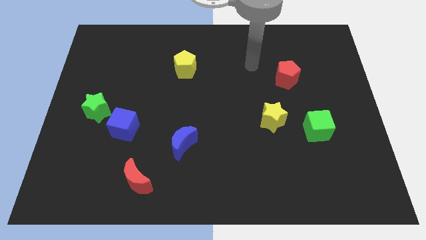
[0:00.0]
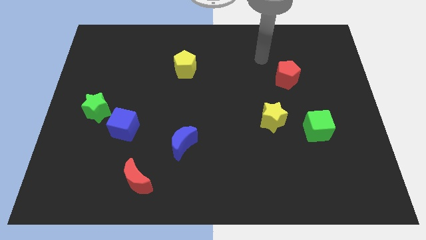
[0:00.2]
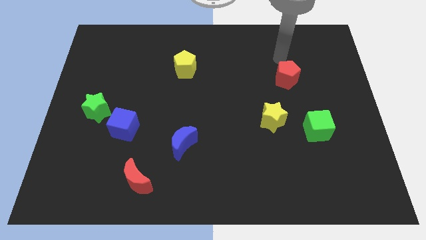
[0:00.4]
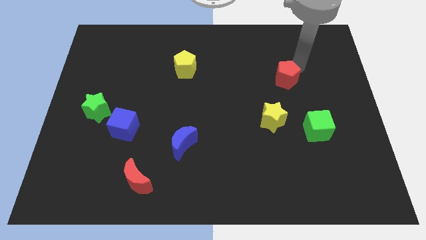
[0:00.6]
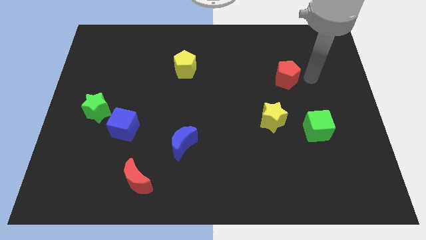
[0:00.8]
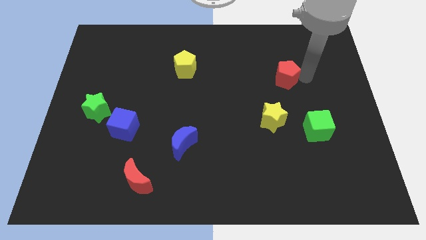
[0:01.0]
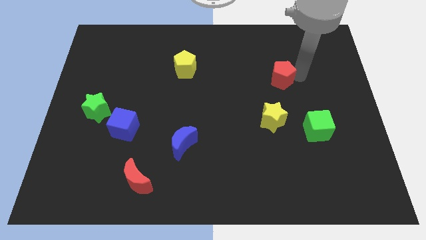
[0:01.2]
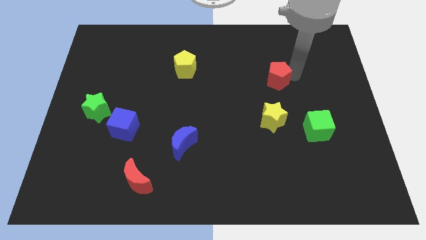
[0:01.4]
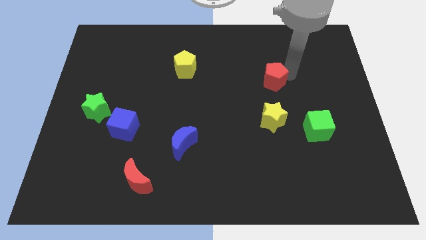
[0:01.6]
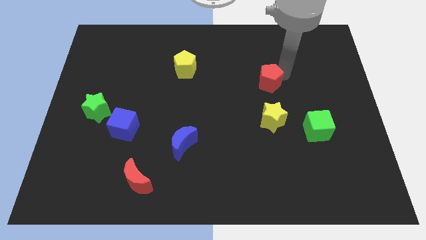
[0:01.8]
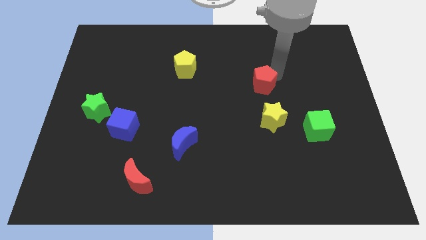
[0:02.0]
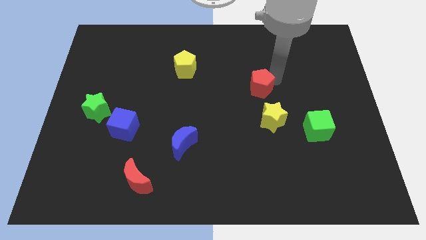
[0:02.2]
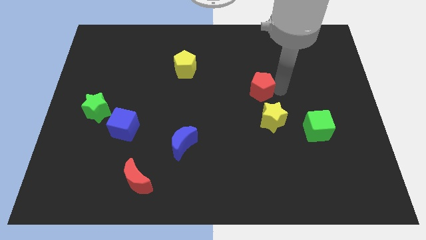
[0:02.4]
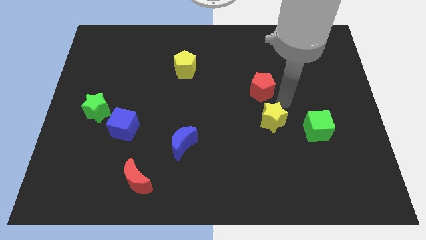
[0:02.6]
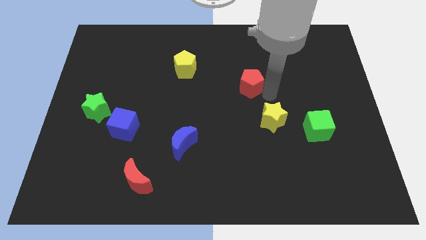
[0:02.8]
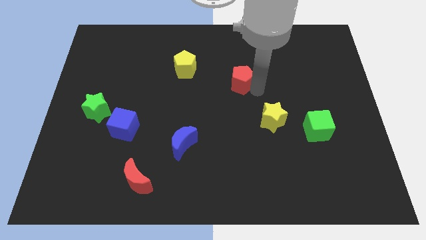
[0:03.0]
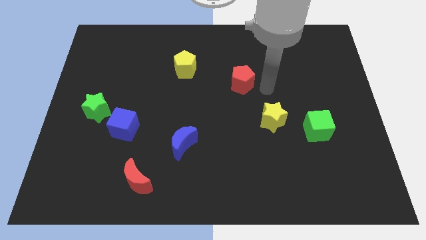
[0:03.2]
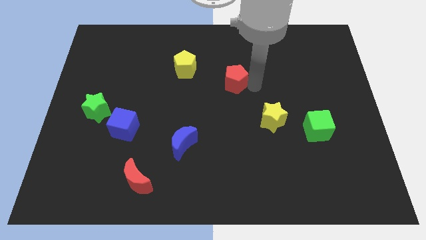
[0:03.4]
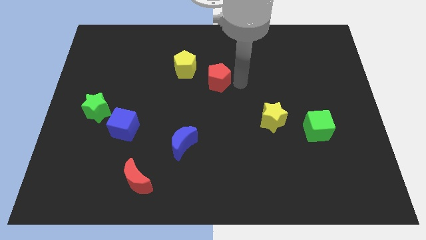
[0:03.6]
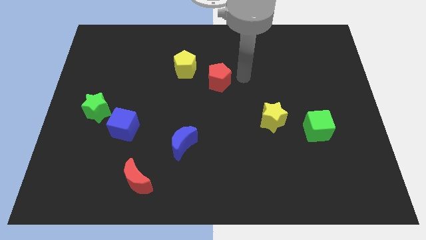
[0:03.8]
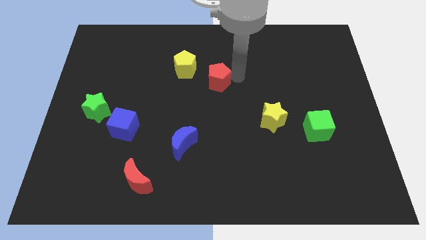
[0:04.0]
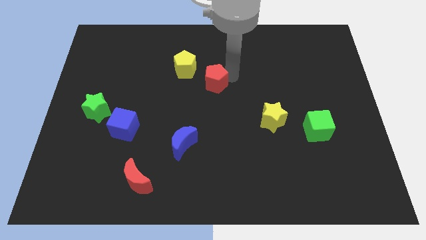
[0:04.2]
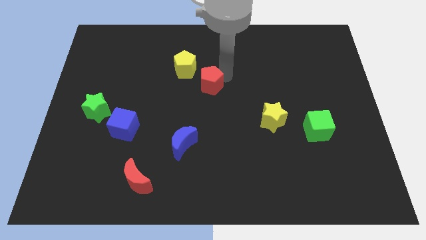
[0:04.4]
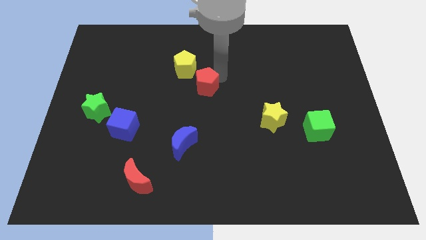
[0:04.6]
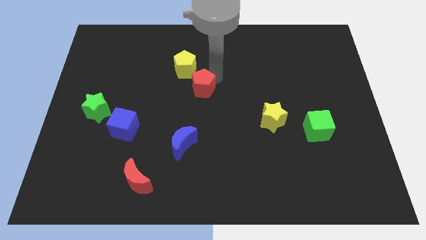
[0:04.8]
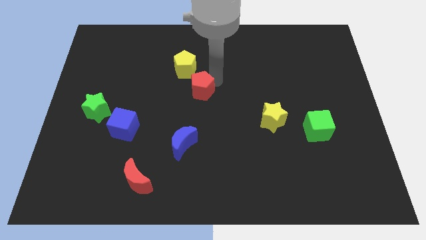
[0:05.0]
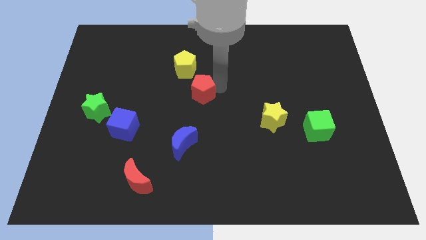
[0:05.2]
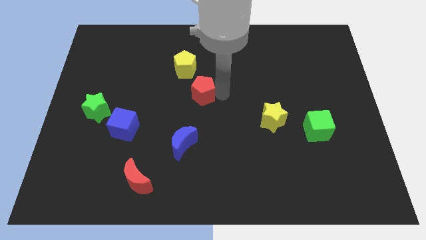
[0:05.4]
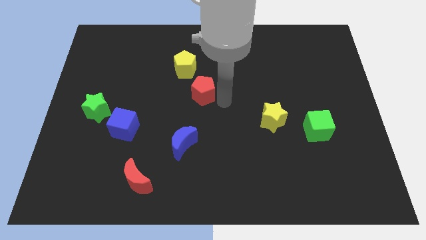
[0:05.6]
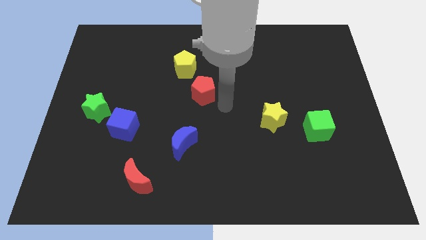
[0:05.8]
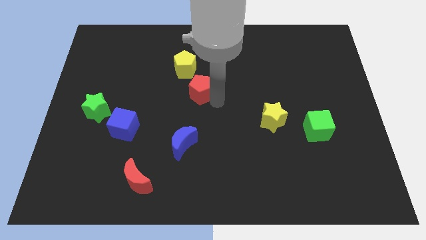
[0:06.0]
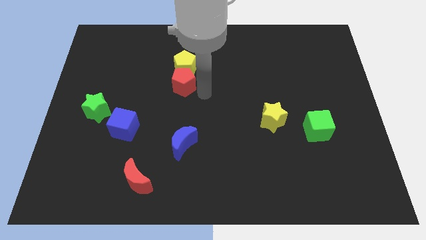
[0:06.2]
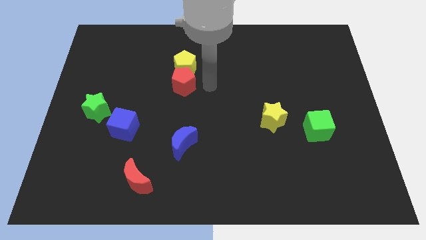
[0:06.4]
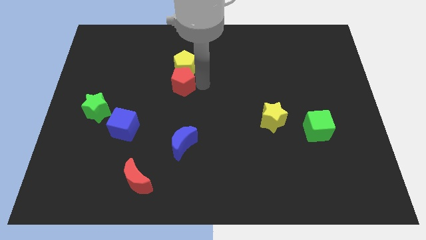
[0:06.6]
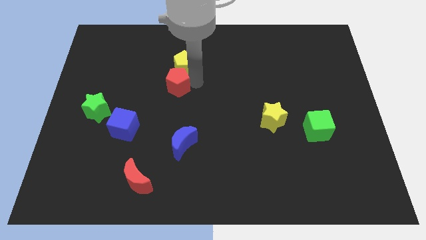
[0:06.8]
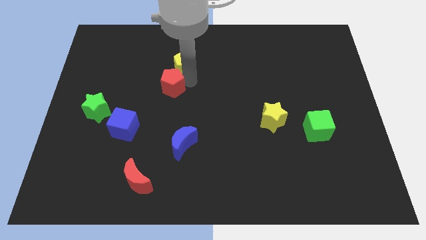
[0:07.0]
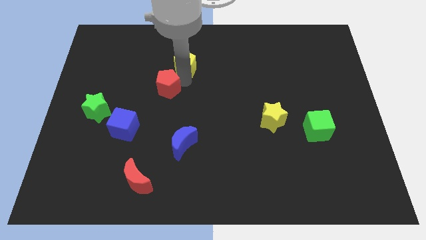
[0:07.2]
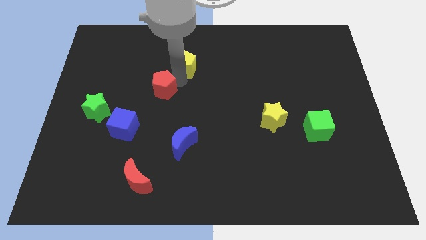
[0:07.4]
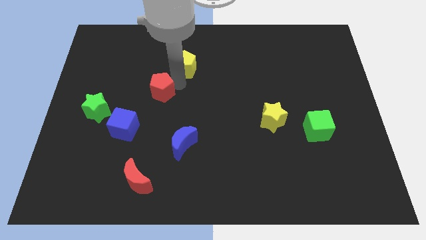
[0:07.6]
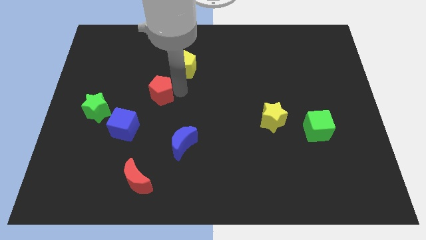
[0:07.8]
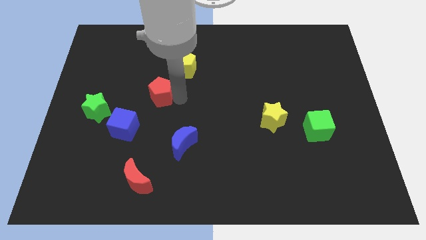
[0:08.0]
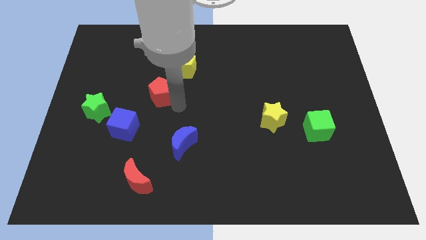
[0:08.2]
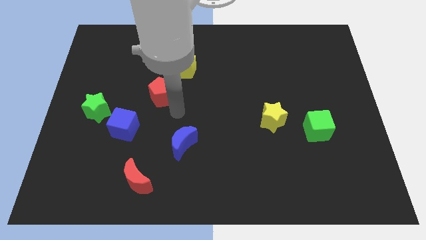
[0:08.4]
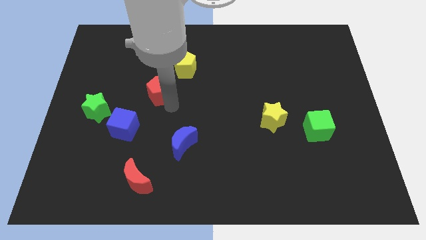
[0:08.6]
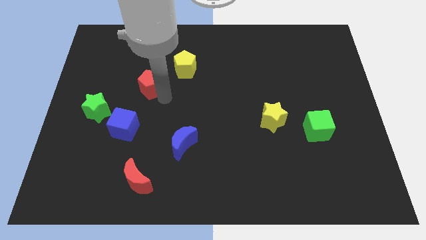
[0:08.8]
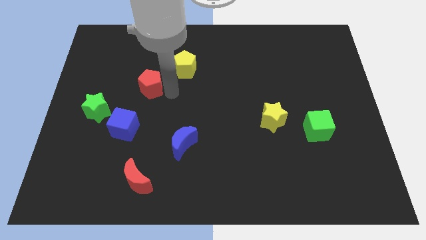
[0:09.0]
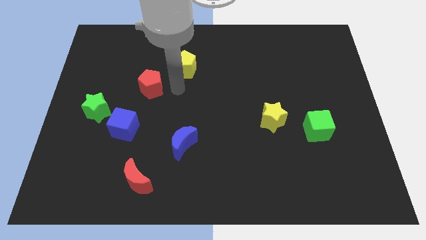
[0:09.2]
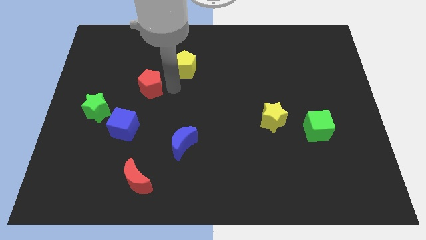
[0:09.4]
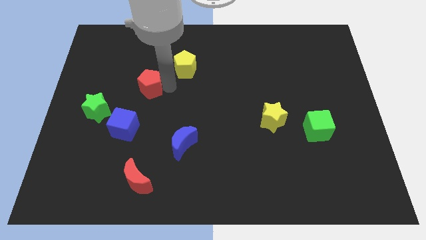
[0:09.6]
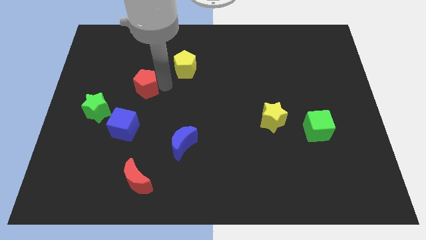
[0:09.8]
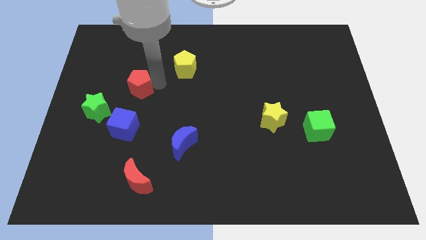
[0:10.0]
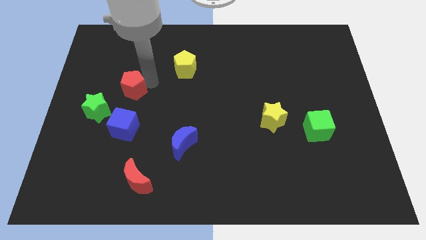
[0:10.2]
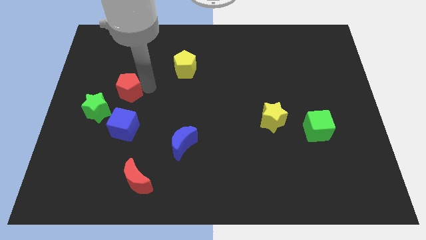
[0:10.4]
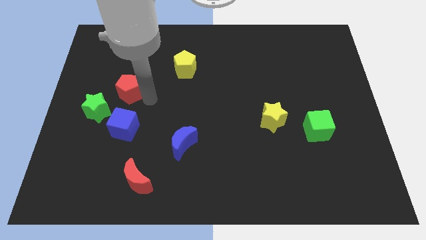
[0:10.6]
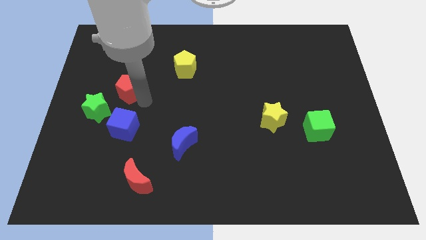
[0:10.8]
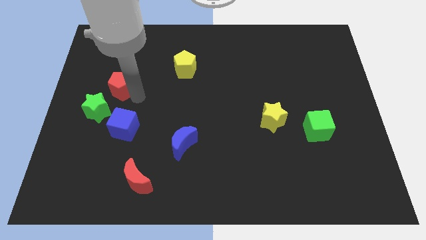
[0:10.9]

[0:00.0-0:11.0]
move the red pentagon to the top side of the green star

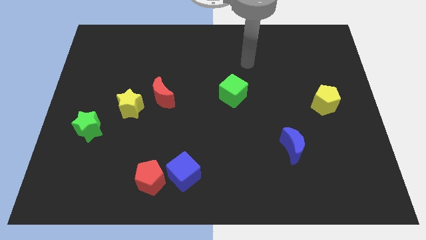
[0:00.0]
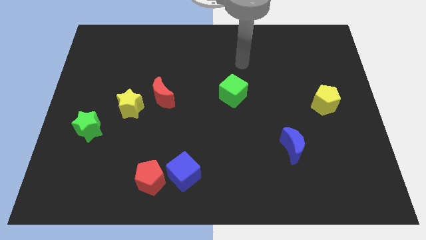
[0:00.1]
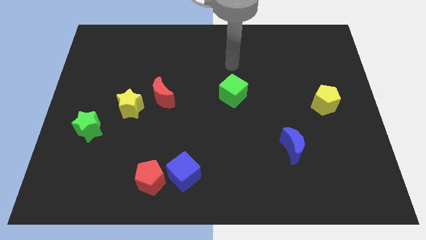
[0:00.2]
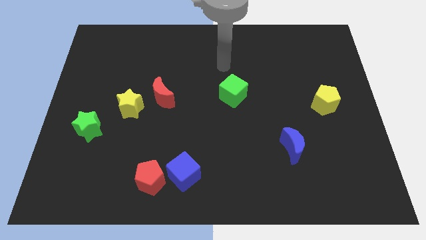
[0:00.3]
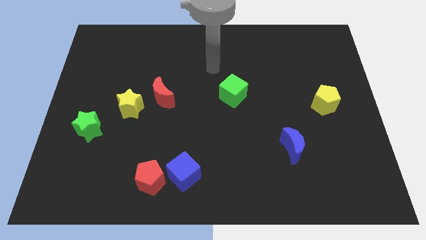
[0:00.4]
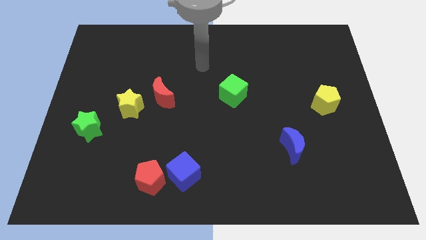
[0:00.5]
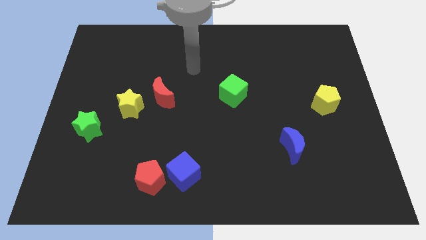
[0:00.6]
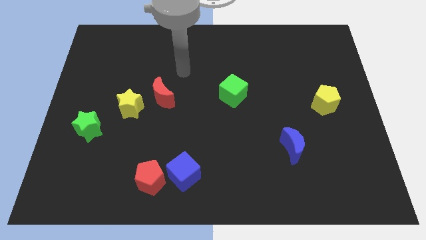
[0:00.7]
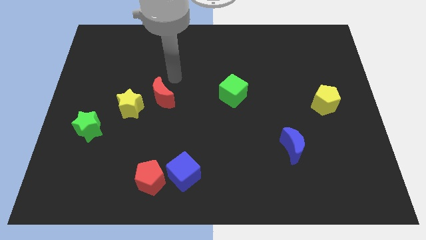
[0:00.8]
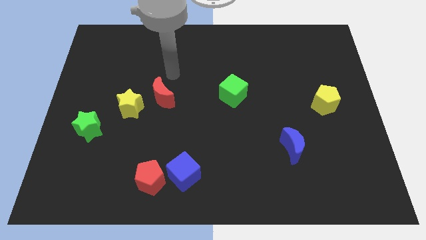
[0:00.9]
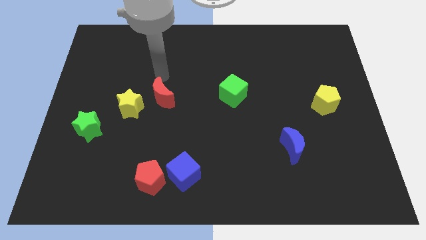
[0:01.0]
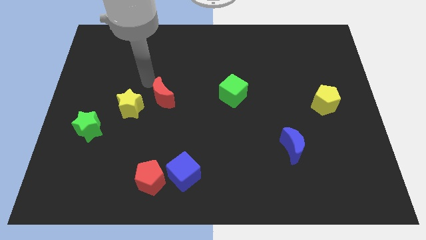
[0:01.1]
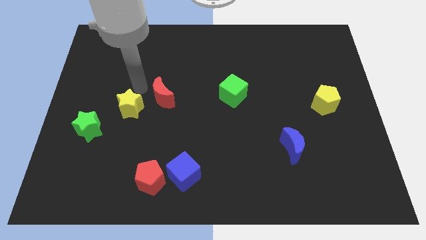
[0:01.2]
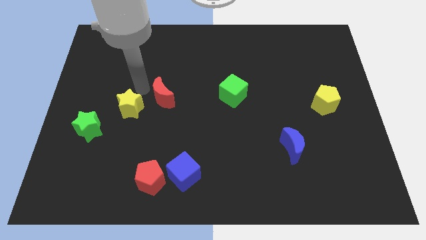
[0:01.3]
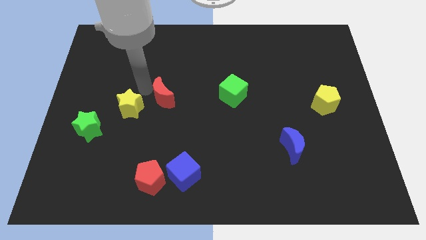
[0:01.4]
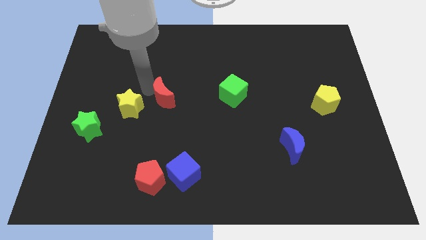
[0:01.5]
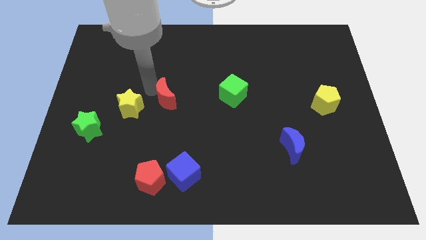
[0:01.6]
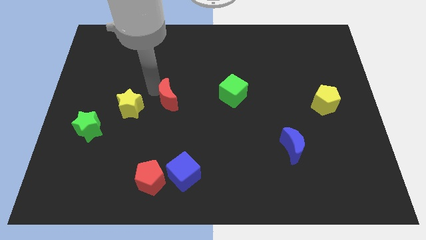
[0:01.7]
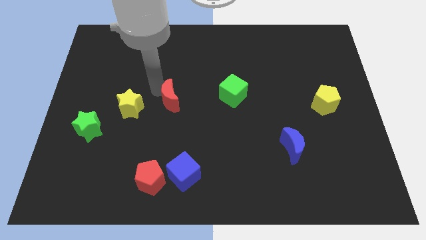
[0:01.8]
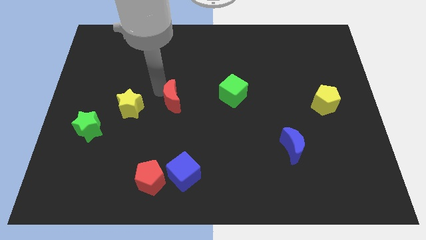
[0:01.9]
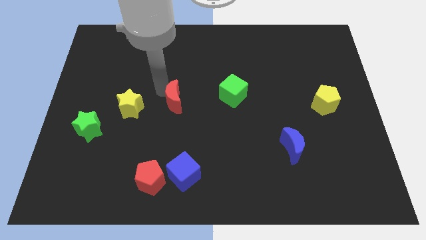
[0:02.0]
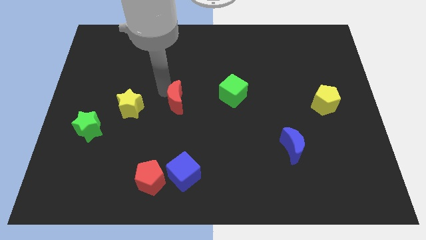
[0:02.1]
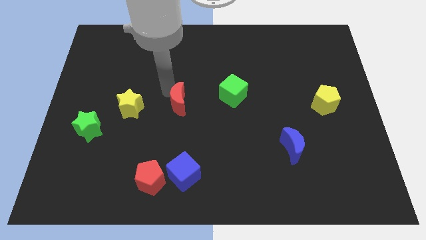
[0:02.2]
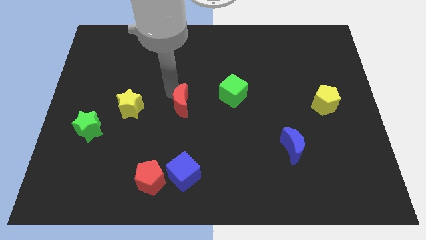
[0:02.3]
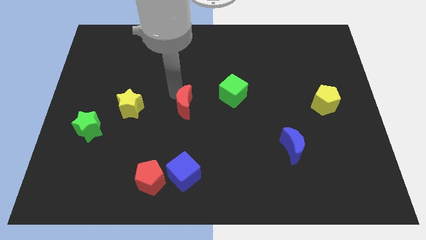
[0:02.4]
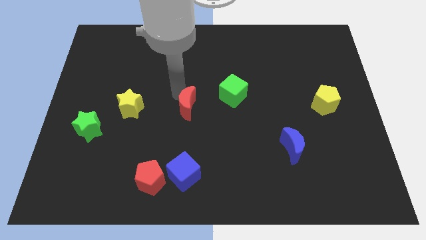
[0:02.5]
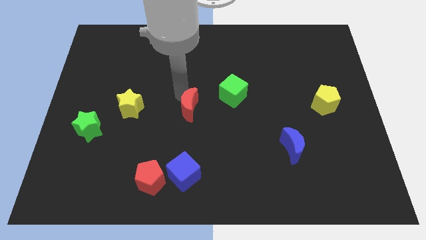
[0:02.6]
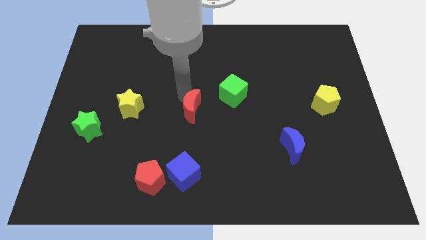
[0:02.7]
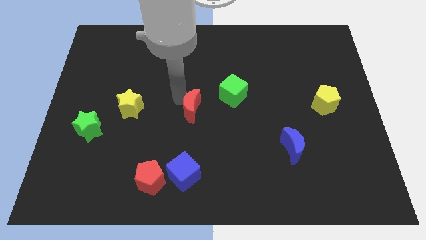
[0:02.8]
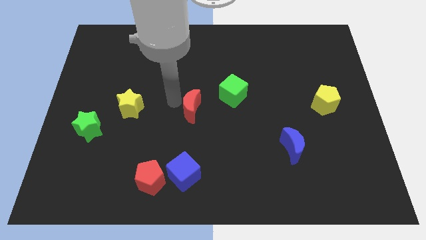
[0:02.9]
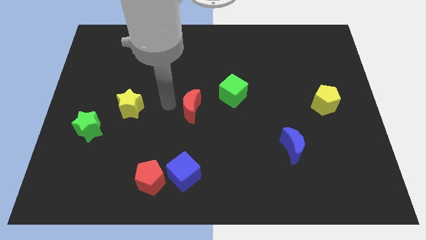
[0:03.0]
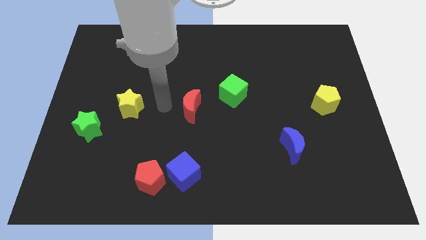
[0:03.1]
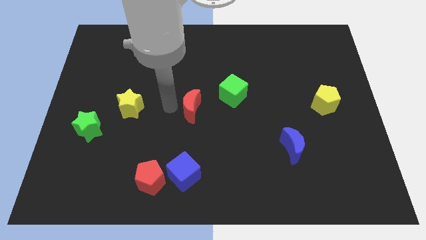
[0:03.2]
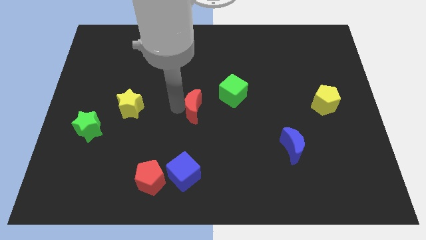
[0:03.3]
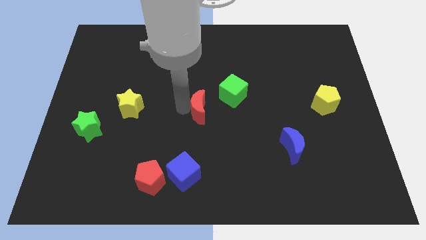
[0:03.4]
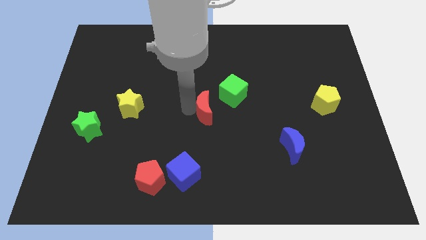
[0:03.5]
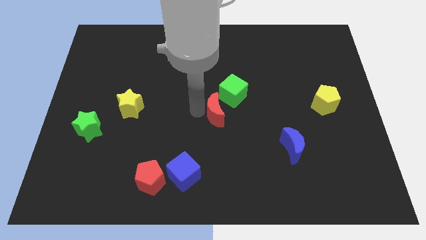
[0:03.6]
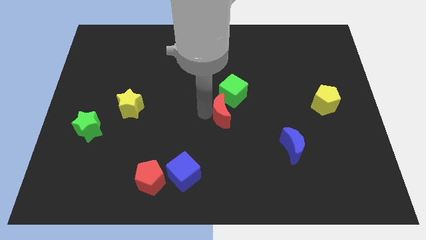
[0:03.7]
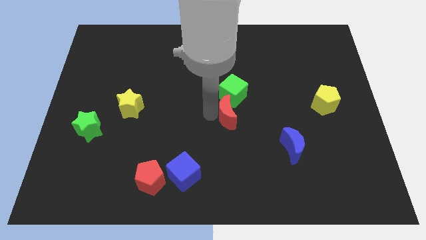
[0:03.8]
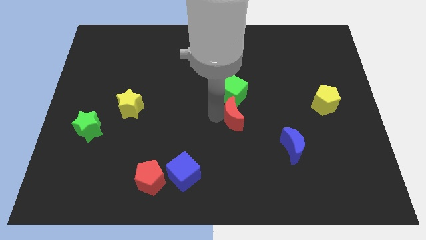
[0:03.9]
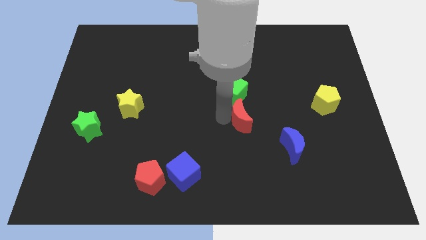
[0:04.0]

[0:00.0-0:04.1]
slide the red moon to the bottom right side of the green cube
